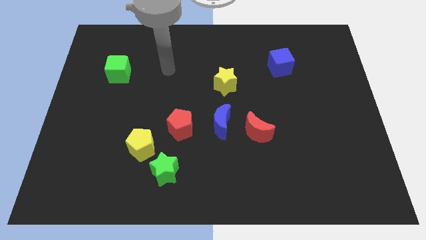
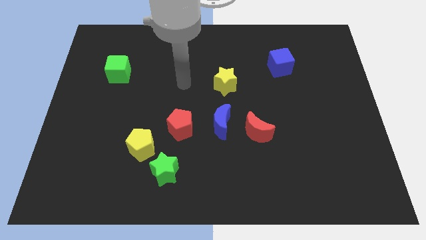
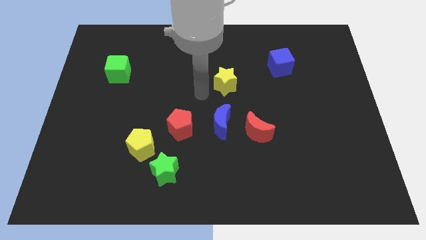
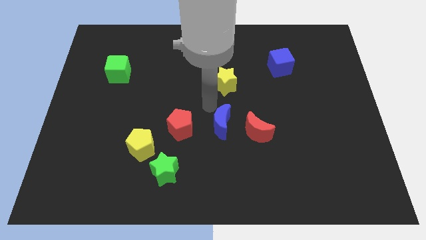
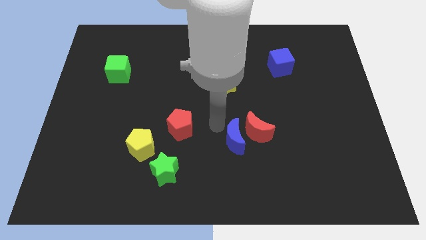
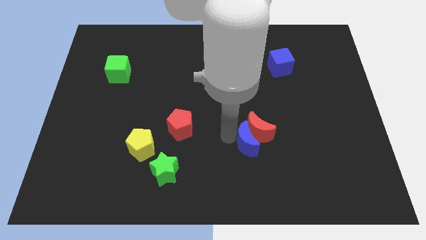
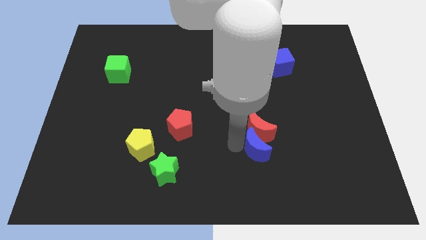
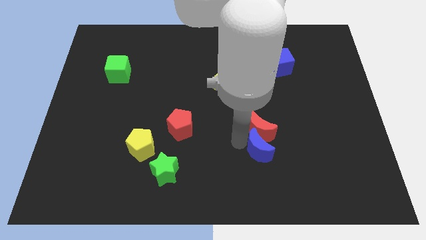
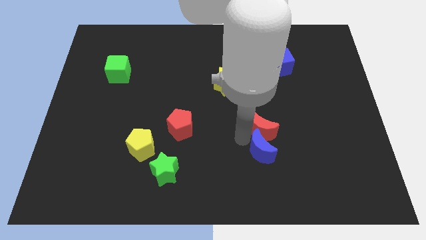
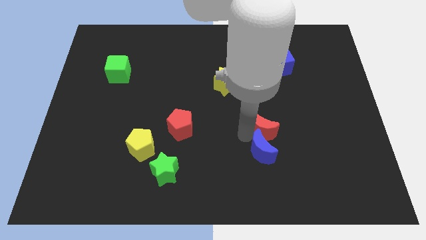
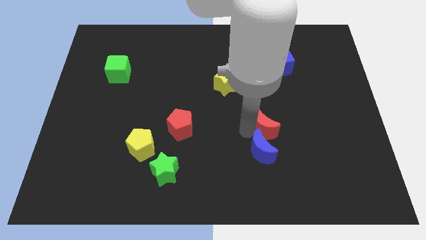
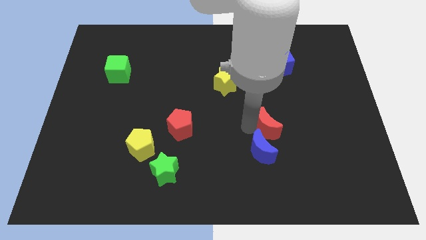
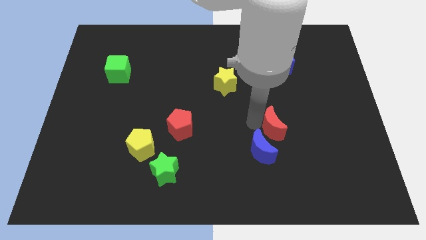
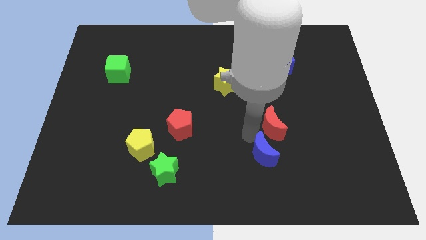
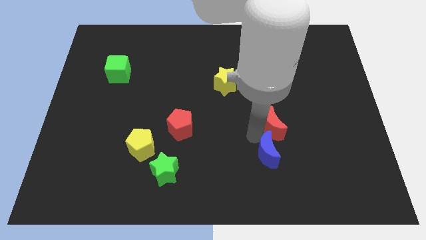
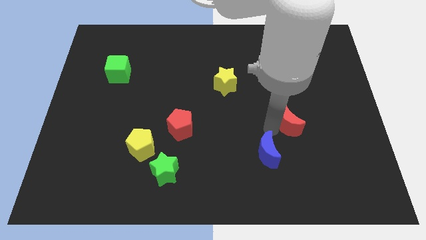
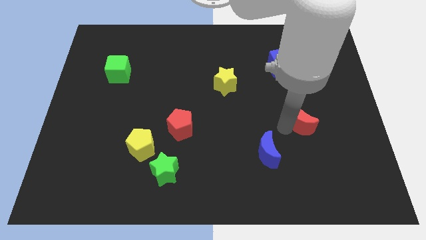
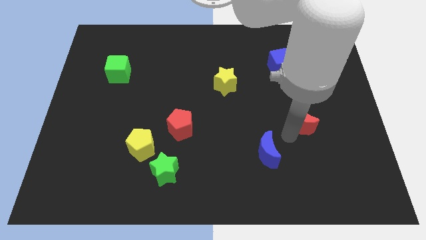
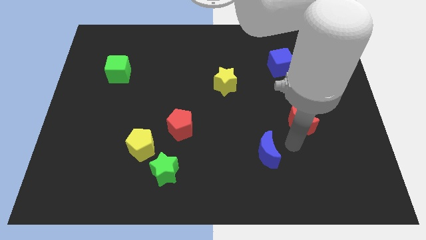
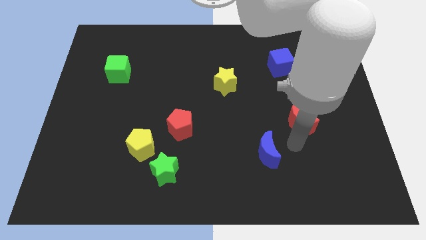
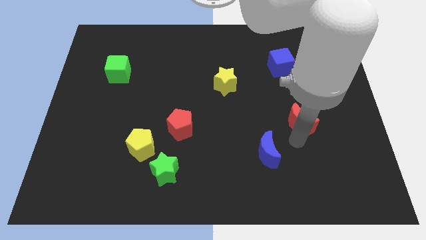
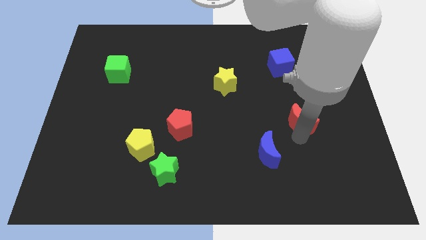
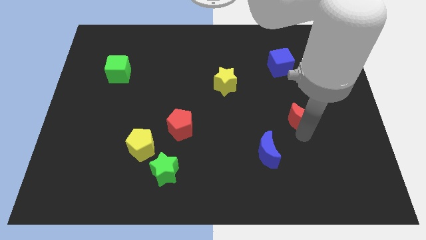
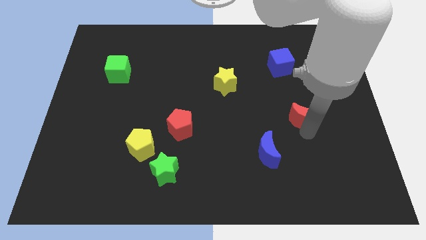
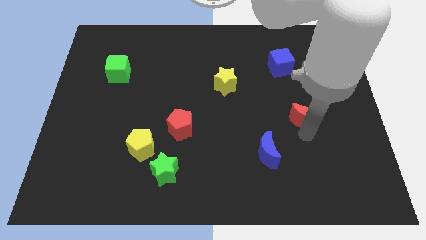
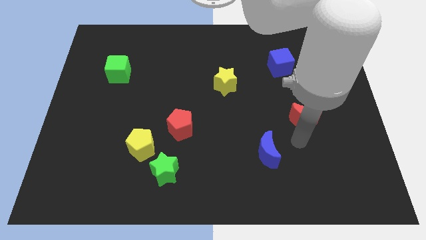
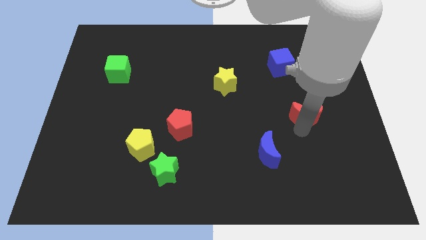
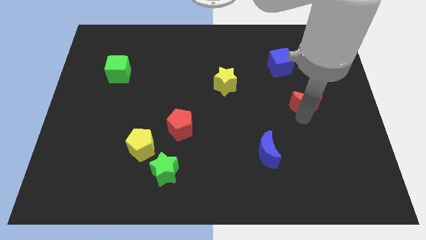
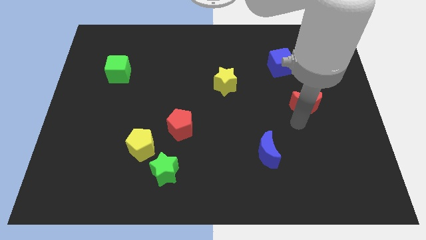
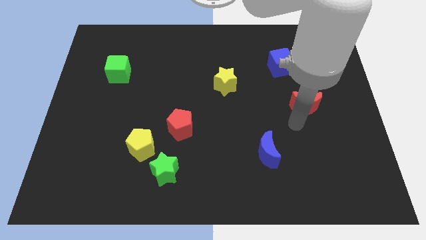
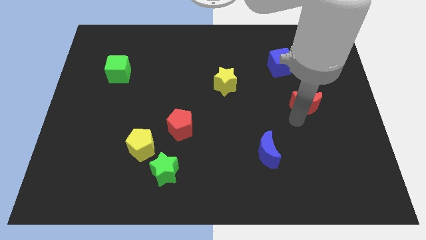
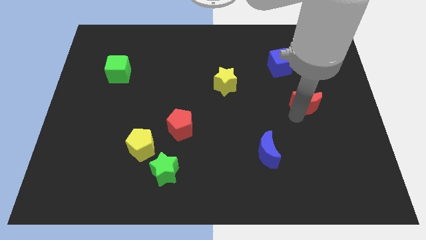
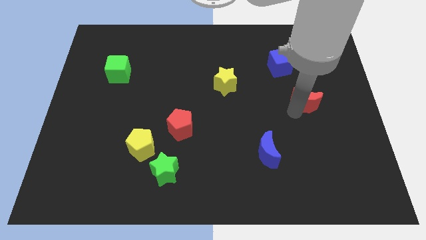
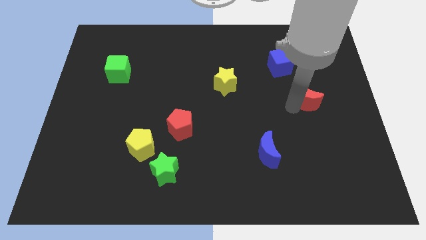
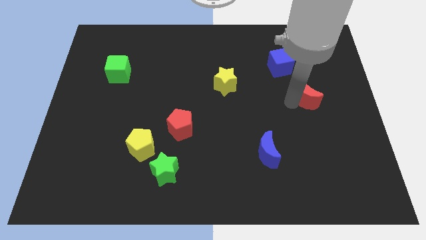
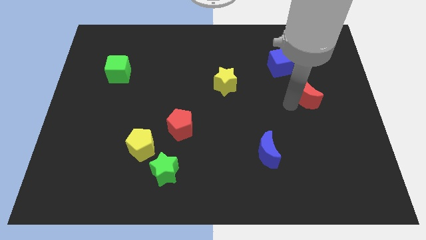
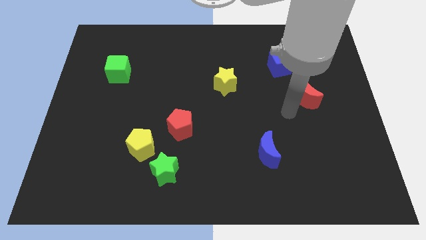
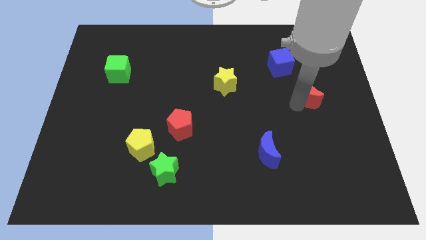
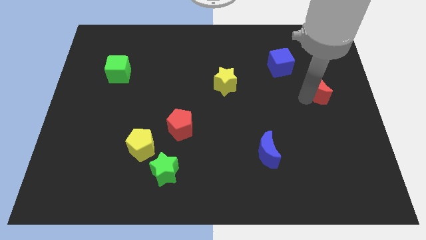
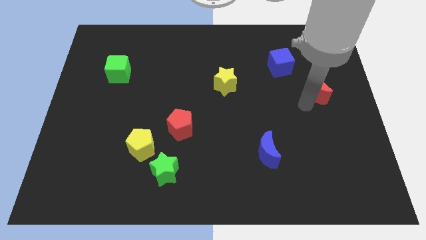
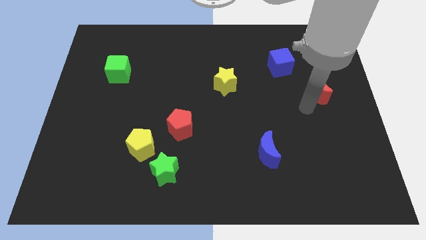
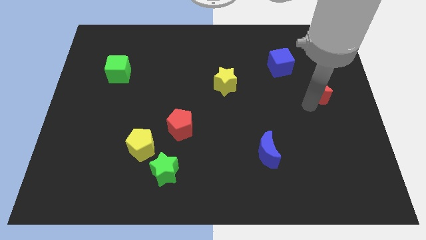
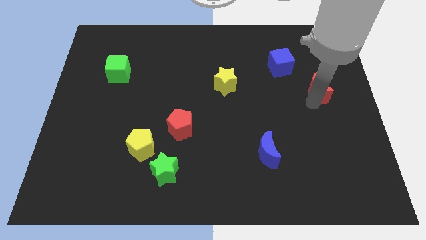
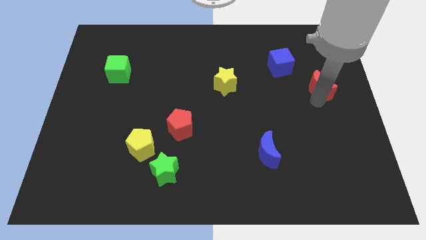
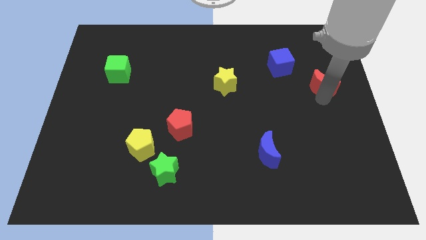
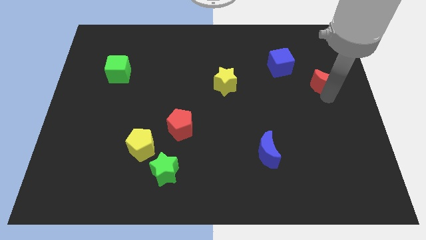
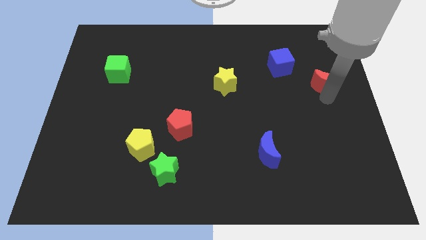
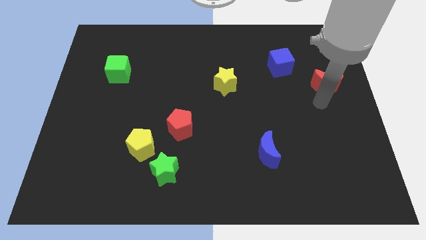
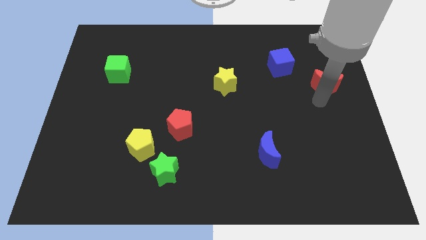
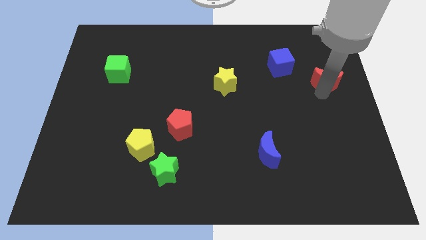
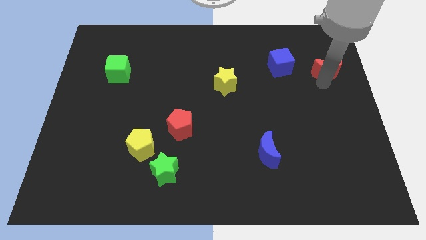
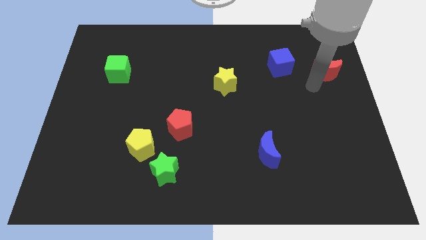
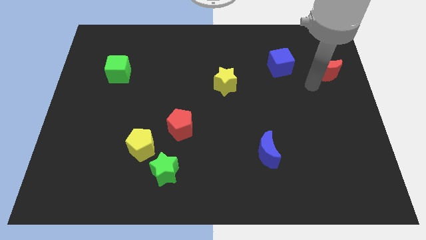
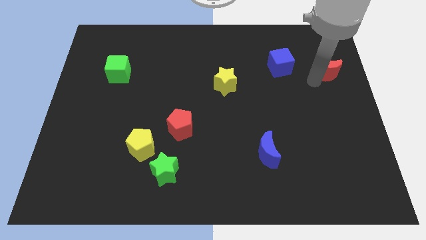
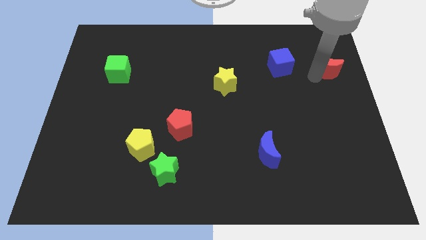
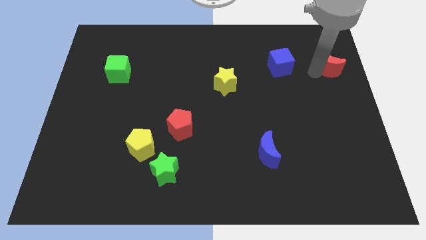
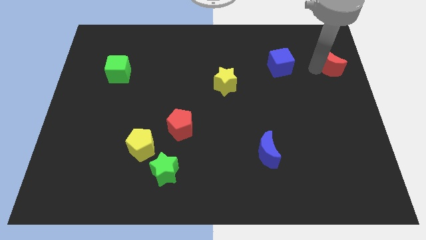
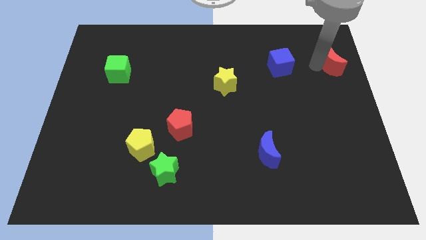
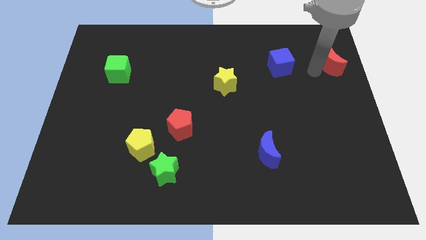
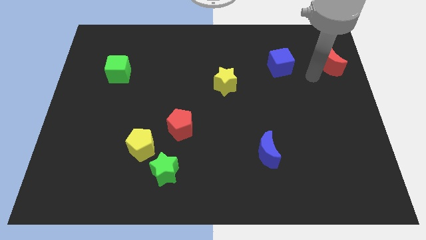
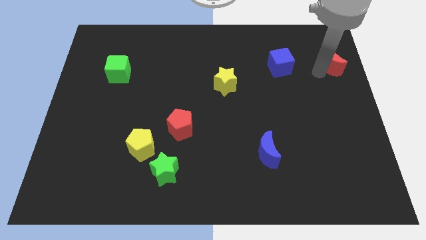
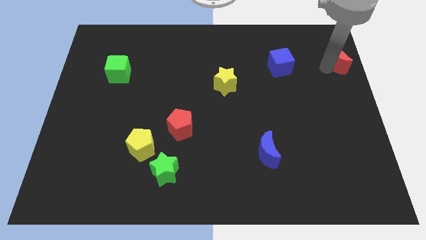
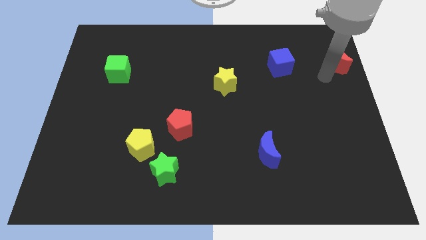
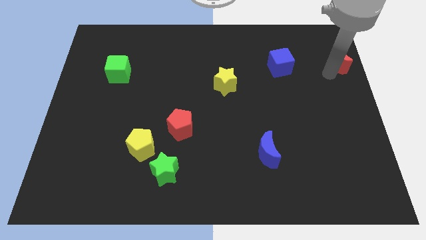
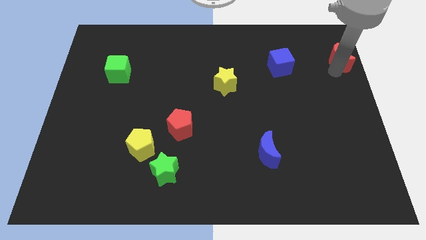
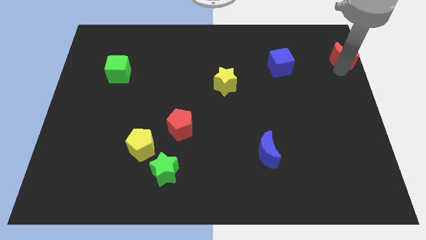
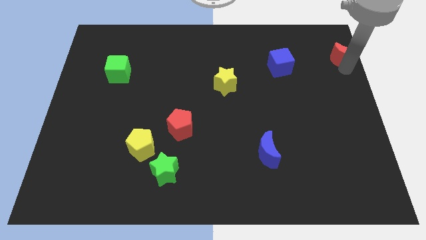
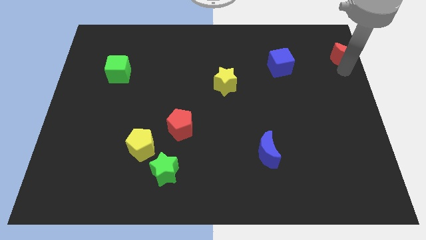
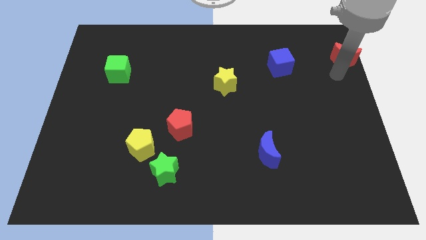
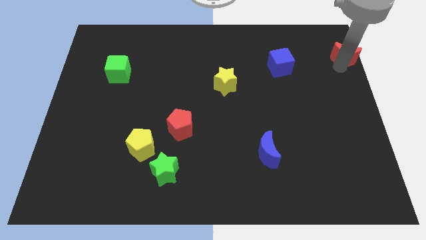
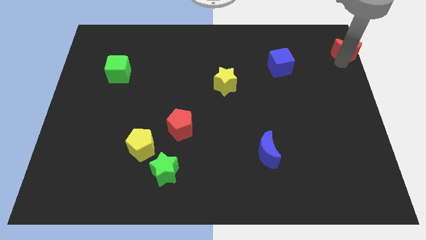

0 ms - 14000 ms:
put the red moon to the top right corner
